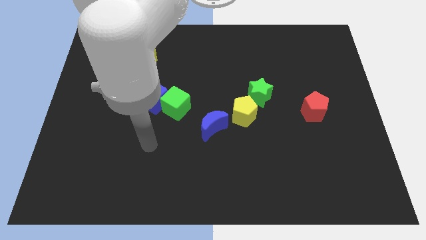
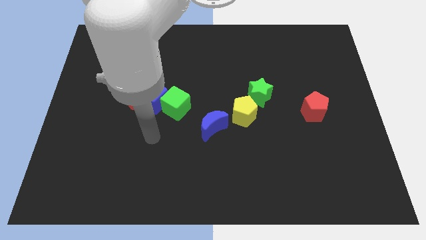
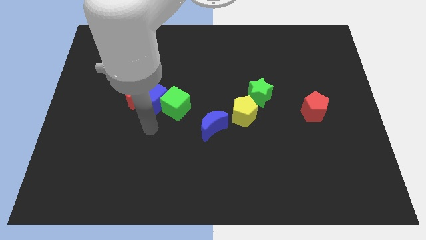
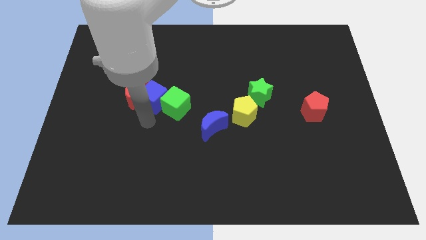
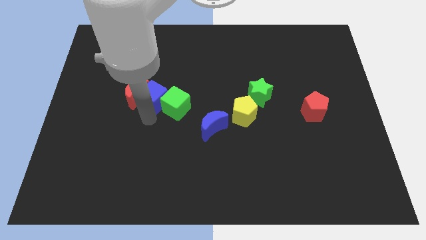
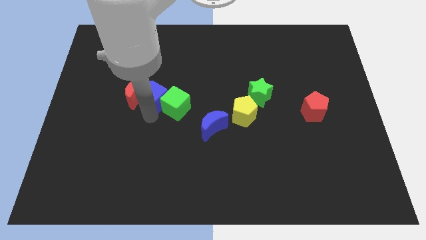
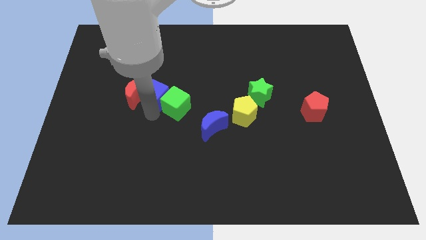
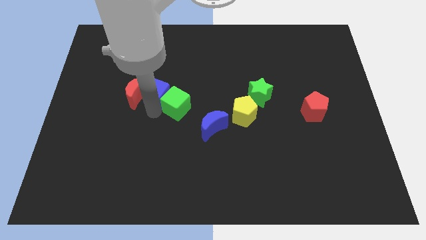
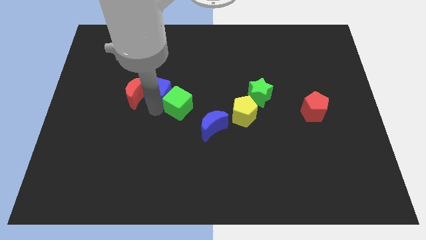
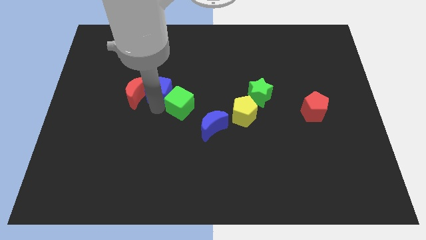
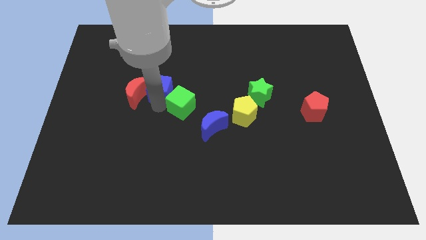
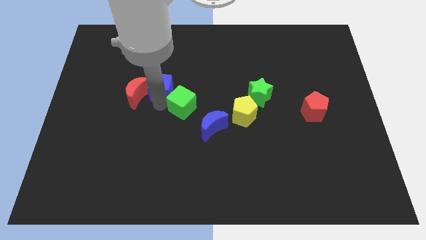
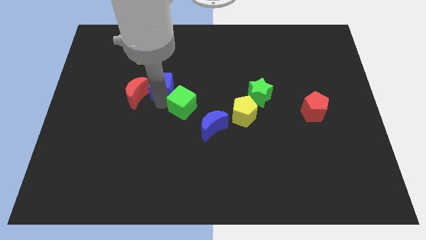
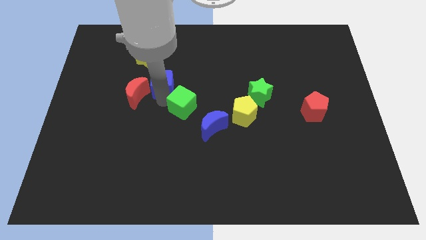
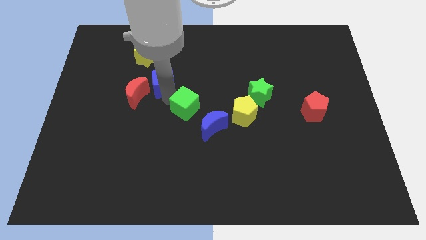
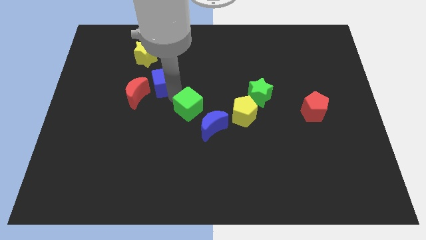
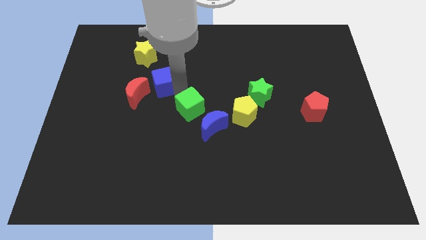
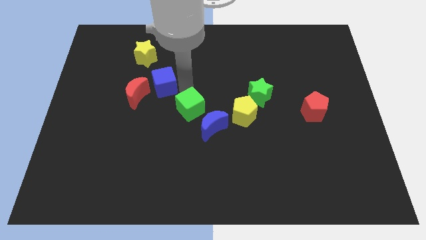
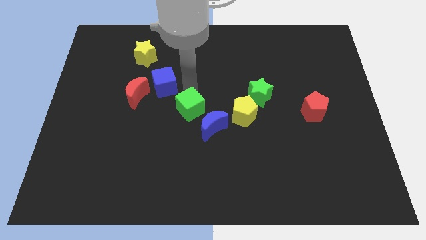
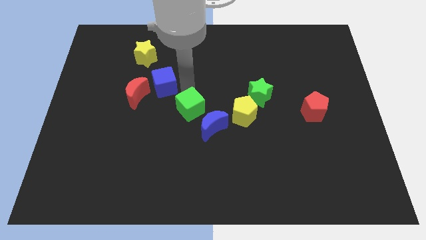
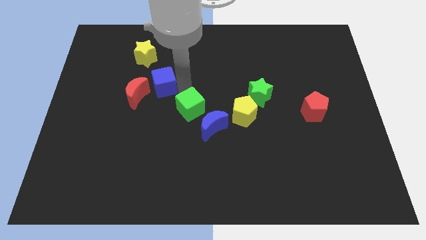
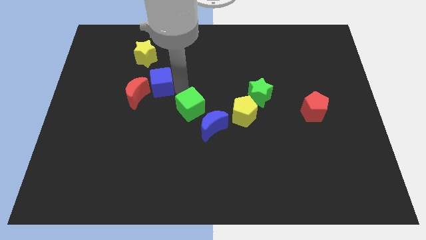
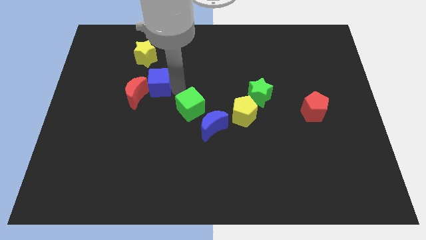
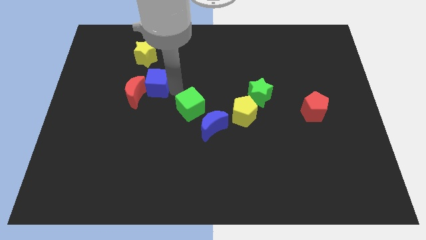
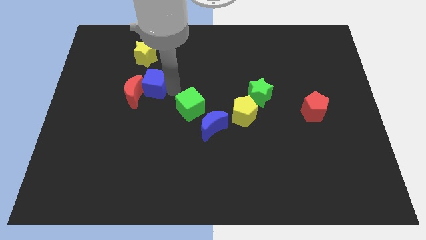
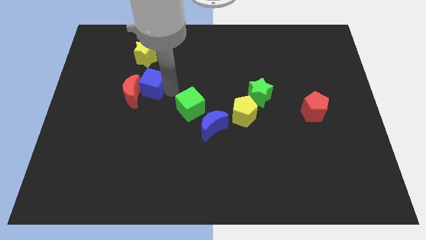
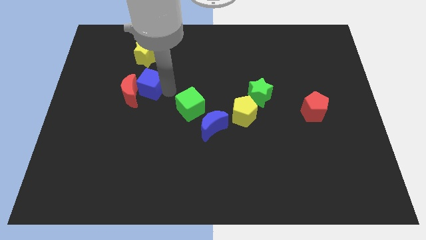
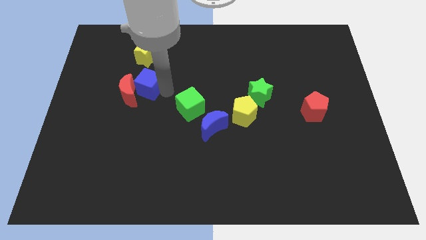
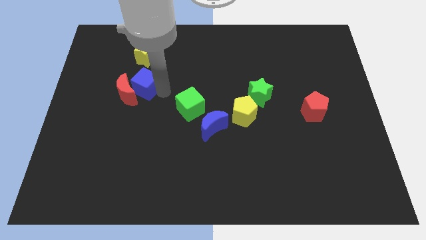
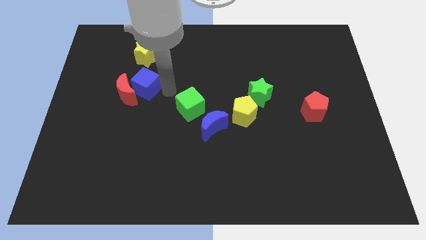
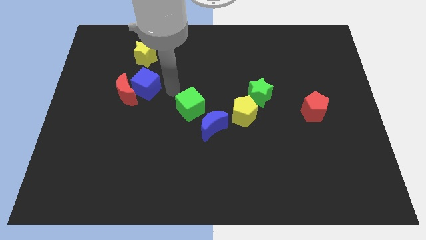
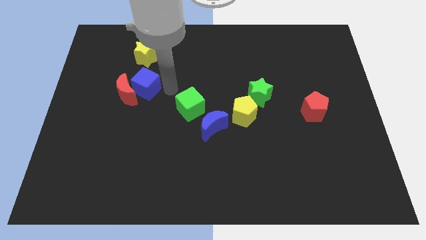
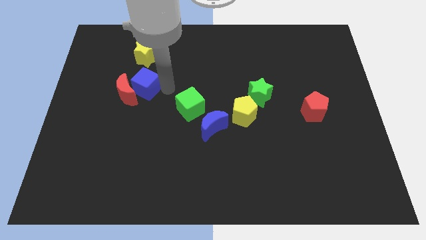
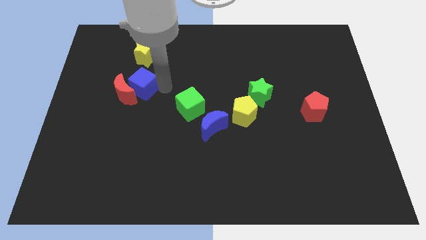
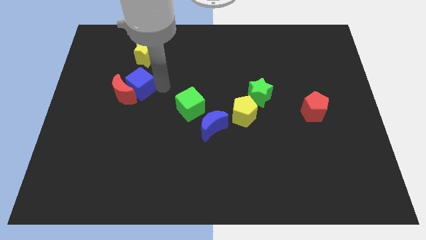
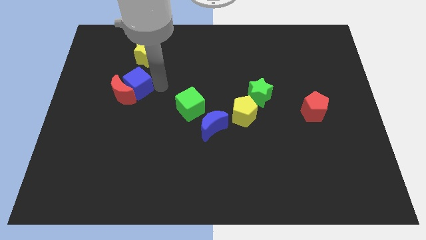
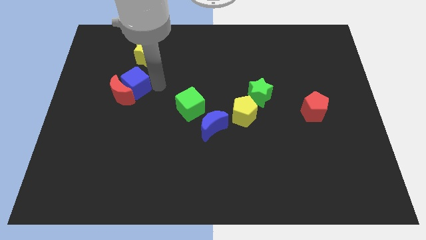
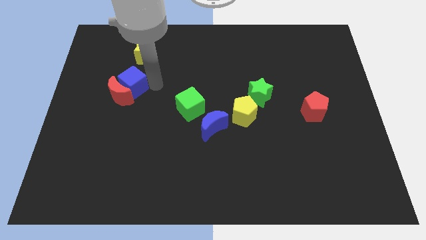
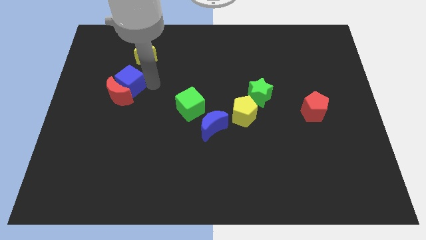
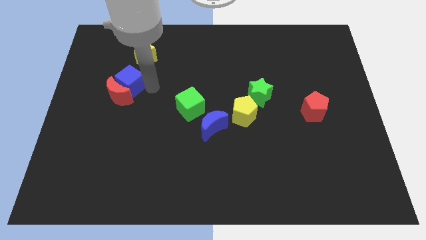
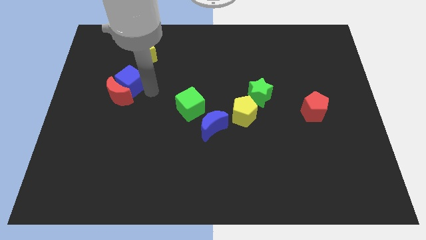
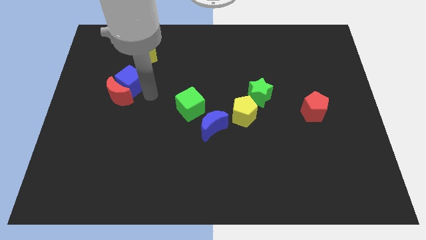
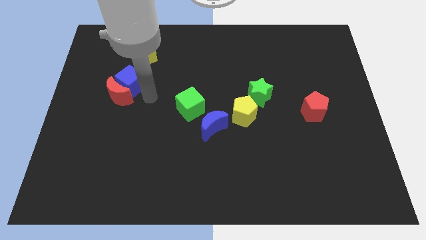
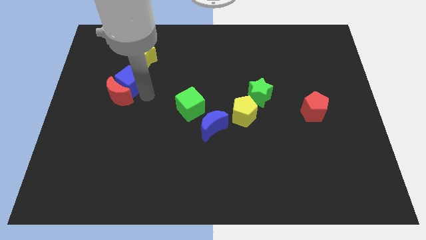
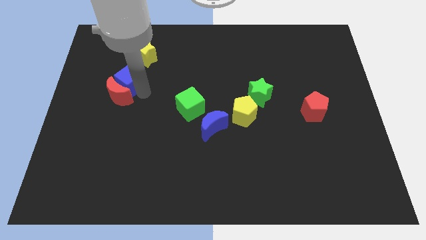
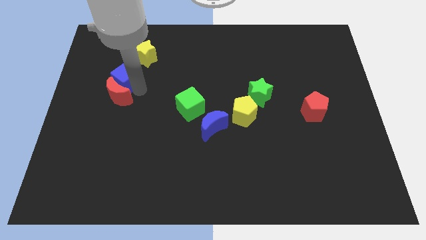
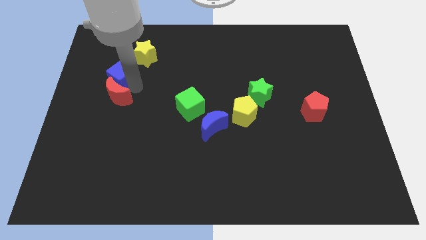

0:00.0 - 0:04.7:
move the blue cube away from the red moon and green cube

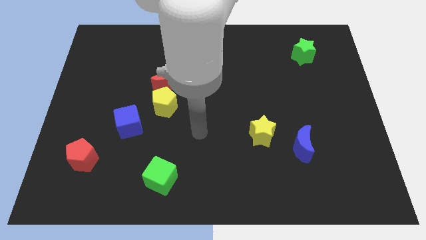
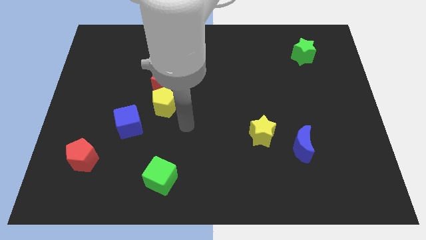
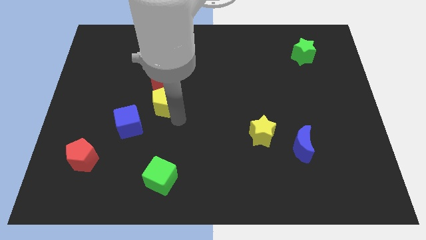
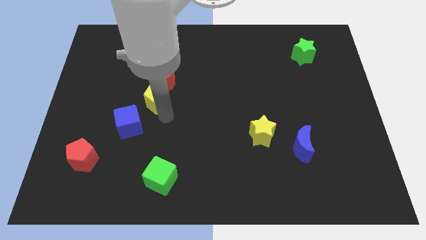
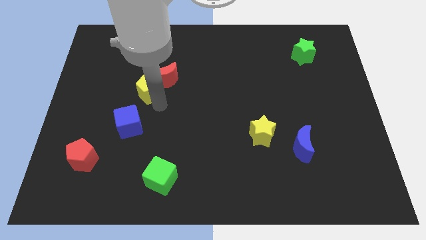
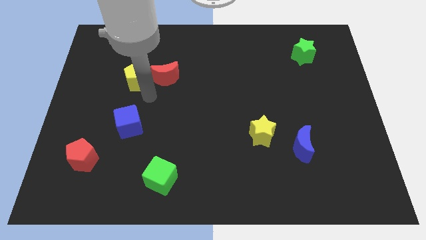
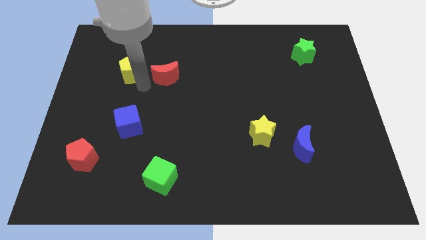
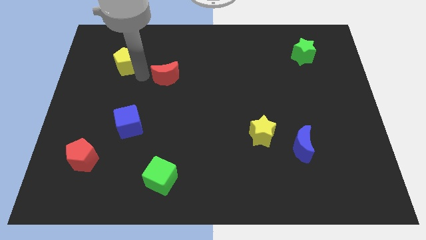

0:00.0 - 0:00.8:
pull the red moon apart from the yellow pentagon

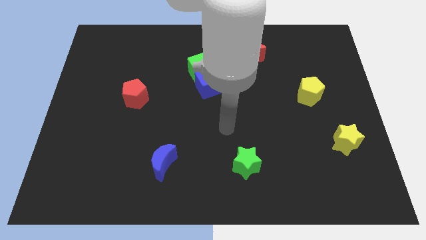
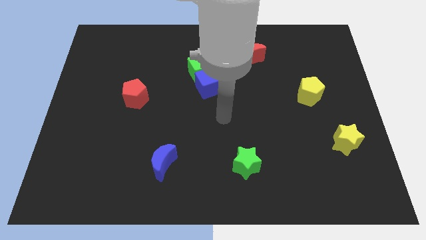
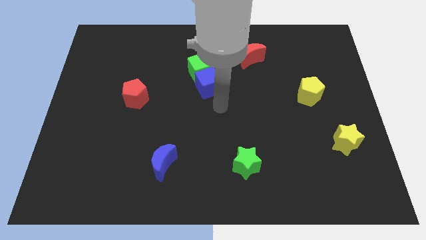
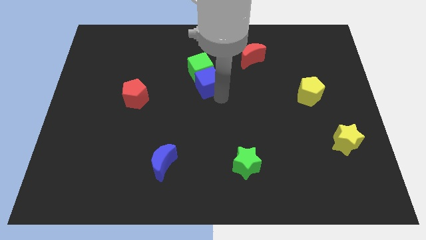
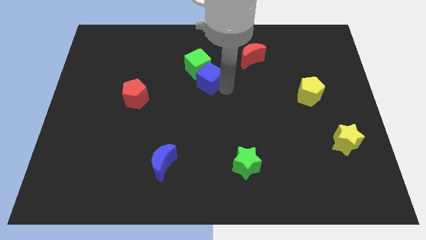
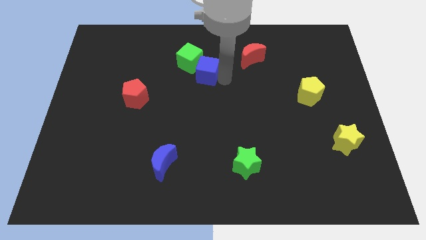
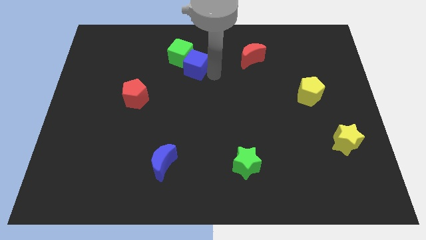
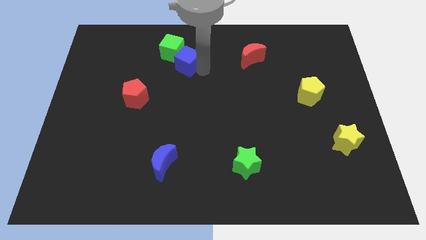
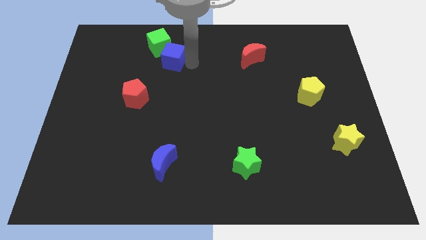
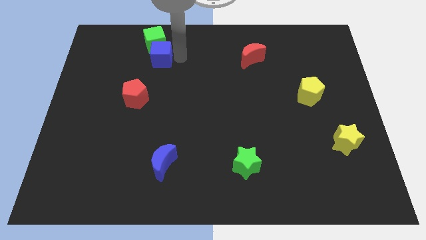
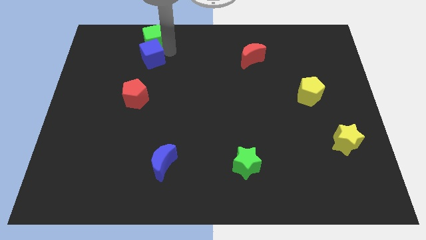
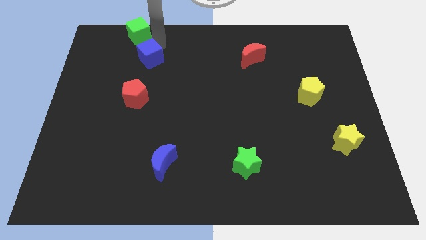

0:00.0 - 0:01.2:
separate the blue cube from the green cube

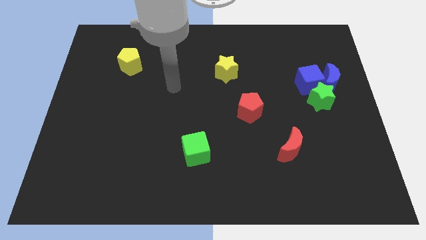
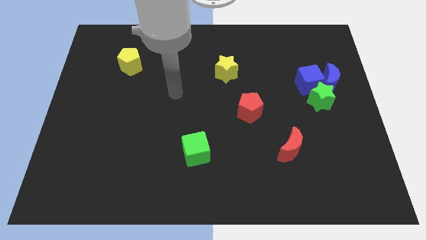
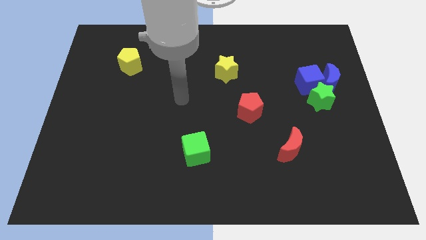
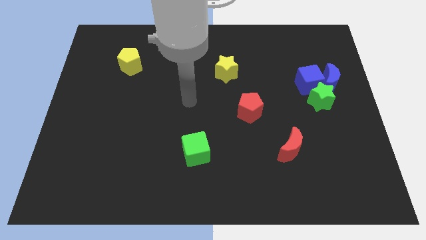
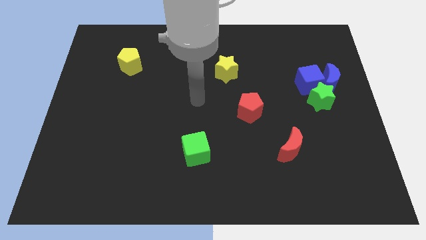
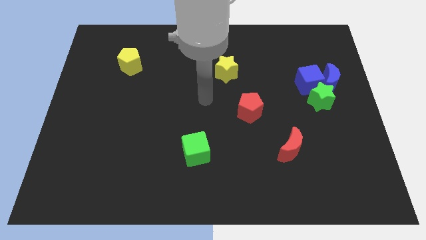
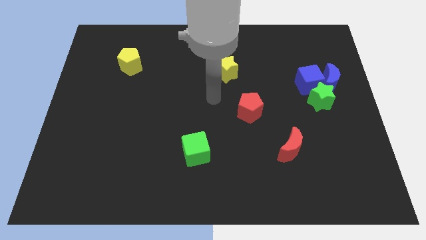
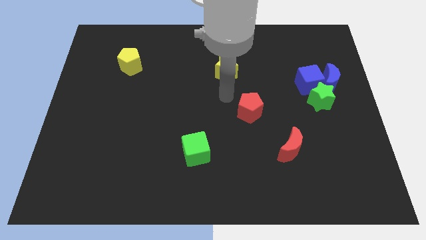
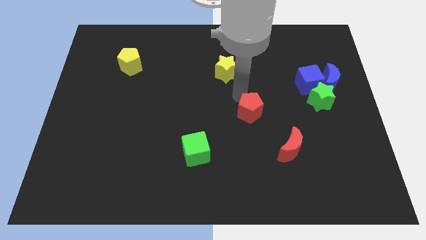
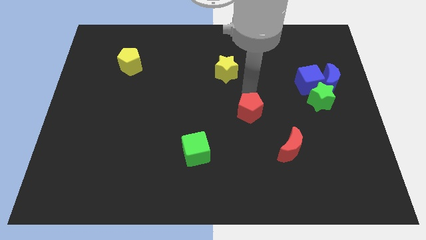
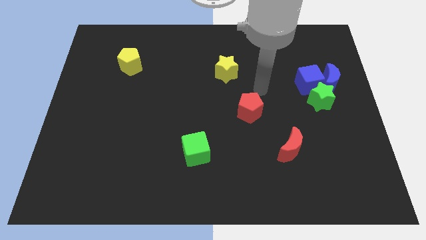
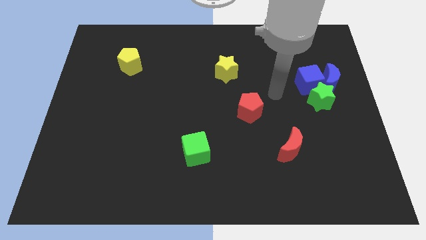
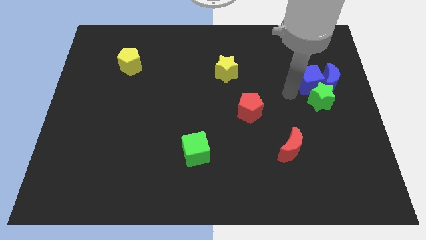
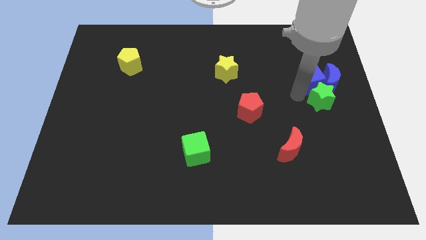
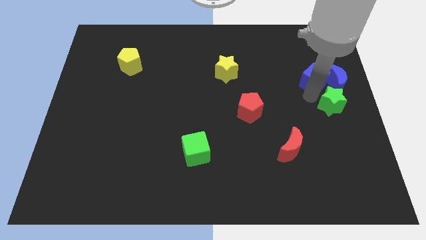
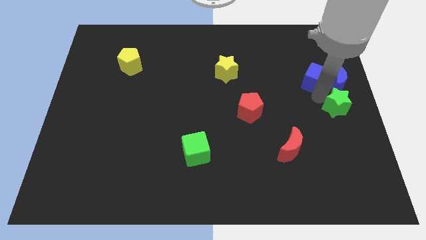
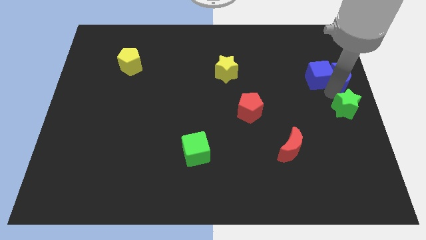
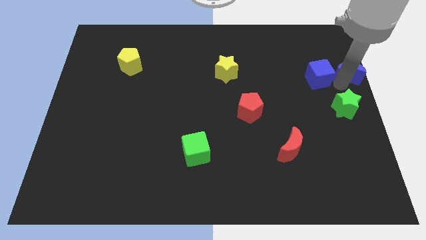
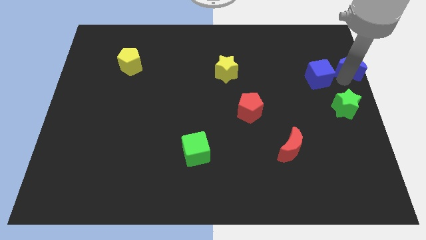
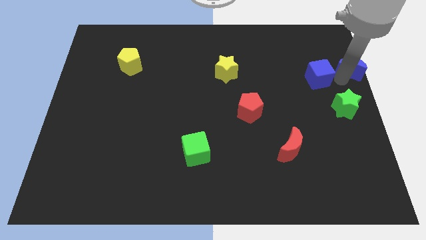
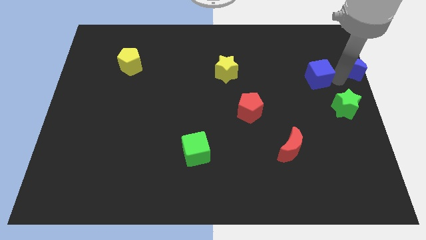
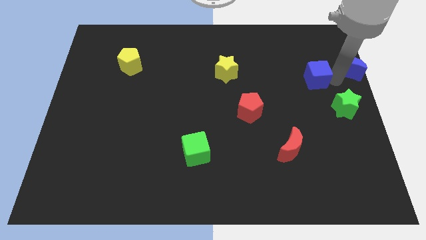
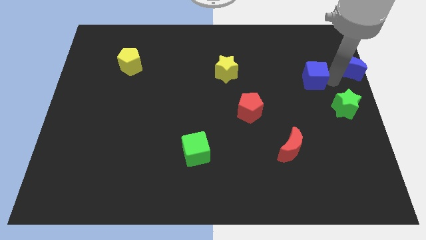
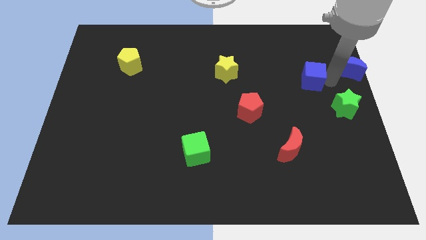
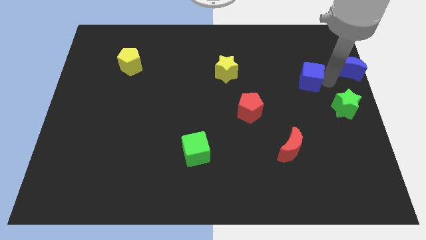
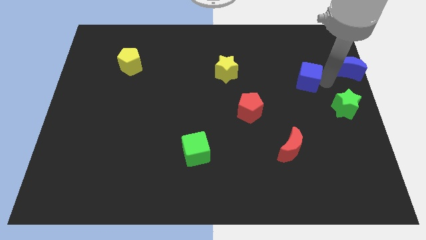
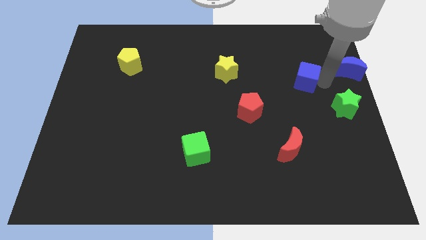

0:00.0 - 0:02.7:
separate the blue cube from the blue moon and green star
